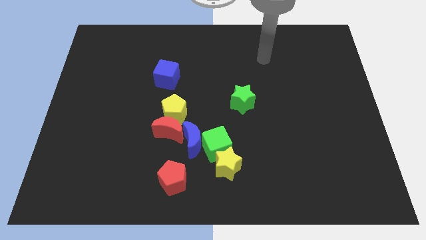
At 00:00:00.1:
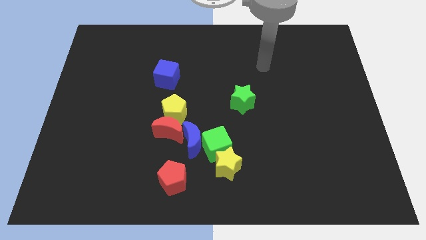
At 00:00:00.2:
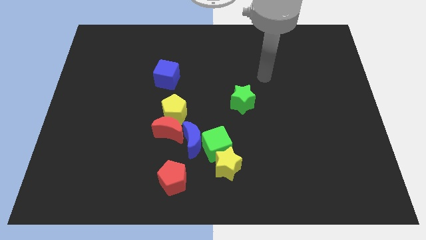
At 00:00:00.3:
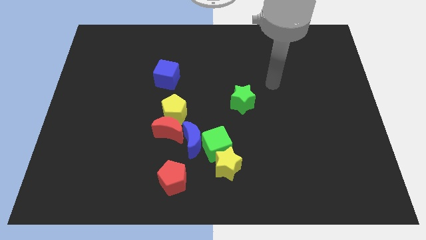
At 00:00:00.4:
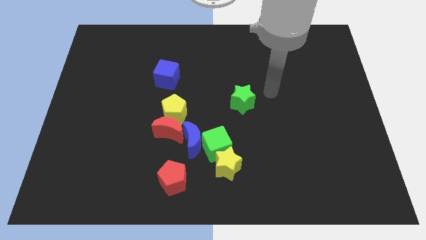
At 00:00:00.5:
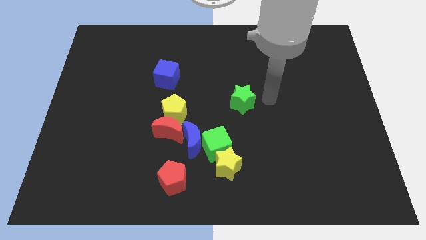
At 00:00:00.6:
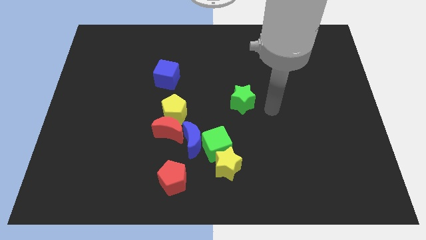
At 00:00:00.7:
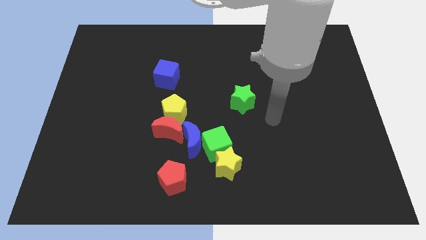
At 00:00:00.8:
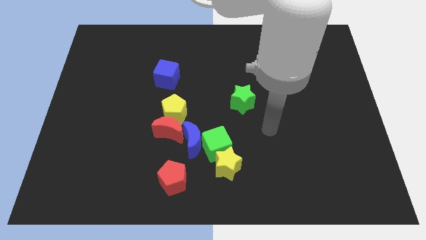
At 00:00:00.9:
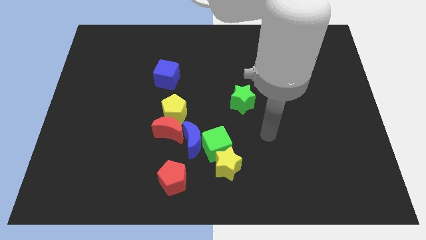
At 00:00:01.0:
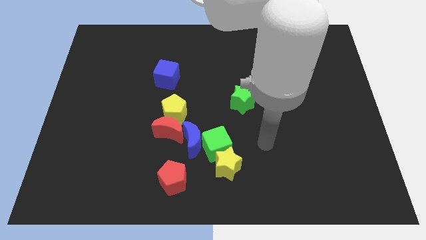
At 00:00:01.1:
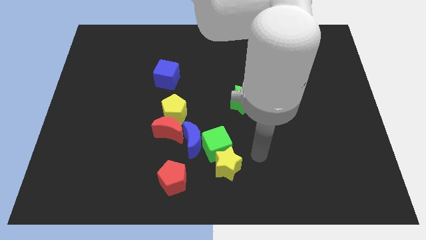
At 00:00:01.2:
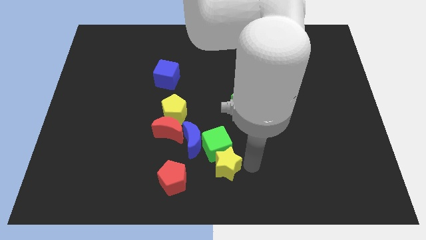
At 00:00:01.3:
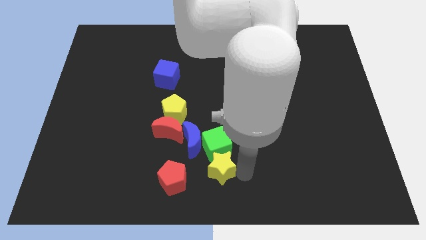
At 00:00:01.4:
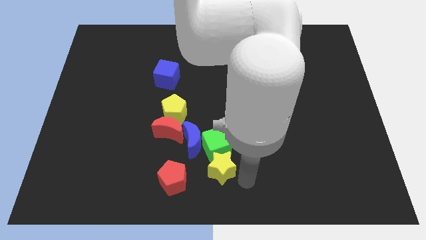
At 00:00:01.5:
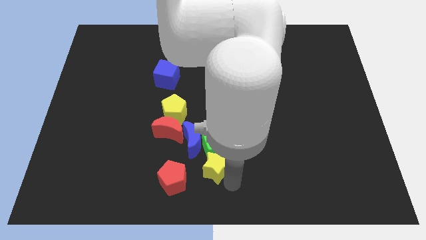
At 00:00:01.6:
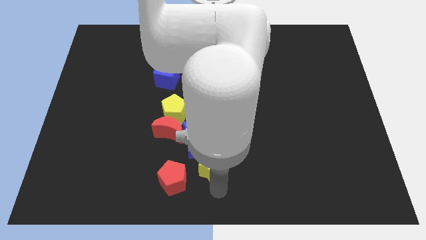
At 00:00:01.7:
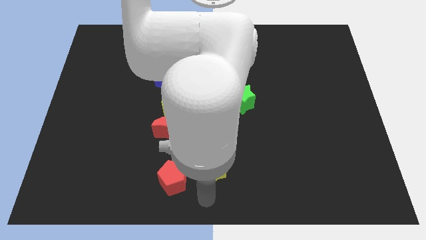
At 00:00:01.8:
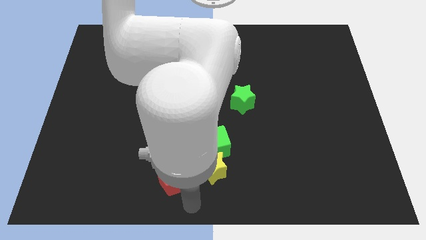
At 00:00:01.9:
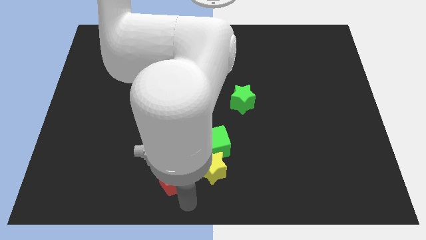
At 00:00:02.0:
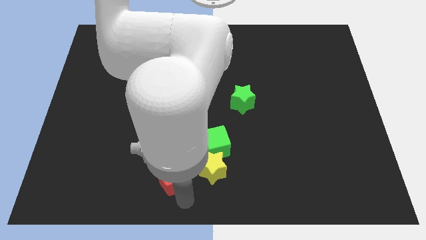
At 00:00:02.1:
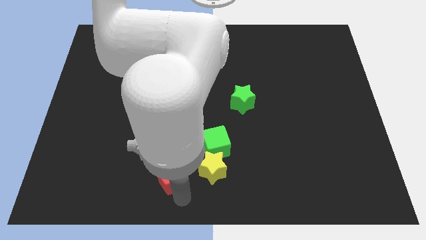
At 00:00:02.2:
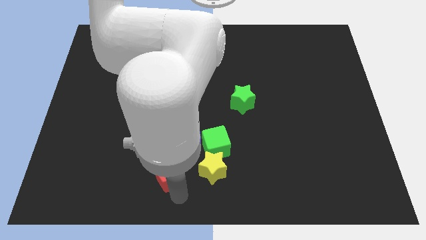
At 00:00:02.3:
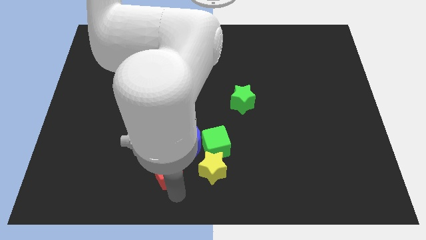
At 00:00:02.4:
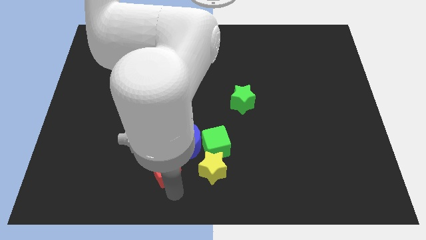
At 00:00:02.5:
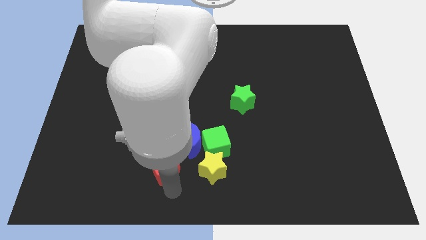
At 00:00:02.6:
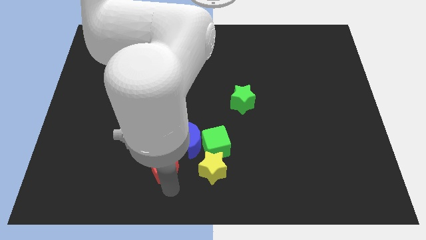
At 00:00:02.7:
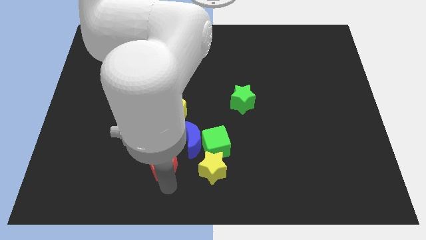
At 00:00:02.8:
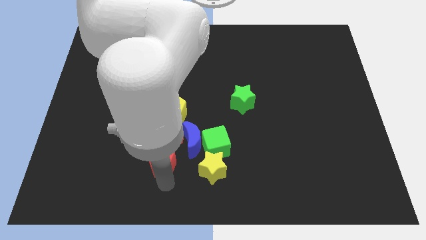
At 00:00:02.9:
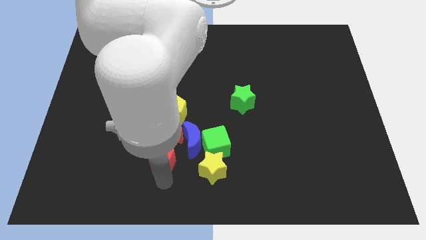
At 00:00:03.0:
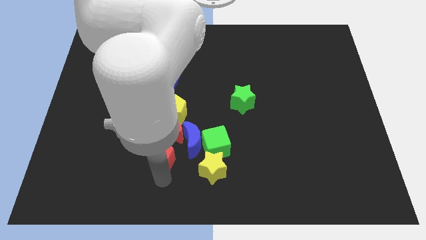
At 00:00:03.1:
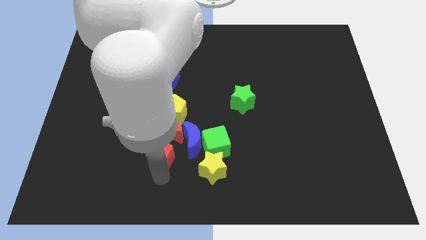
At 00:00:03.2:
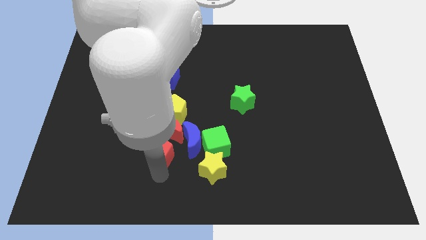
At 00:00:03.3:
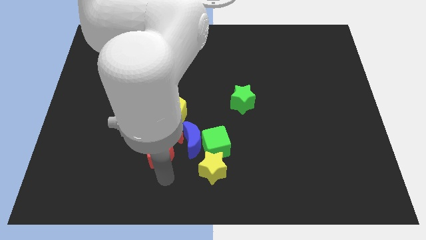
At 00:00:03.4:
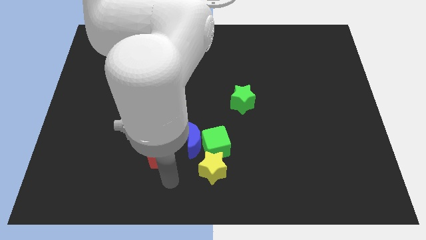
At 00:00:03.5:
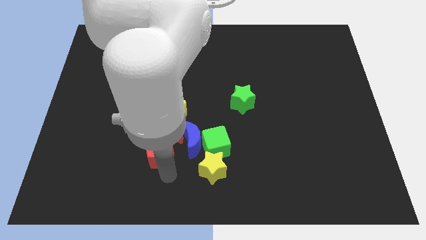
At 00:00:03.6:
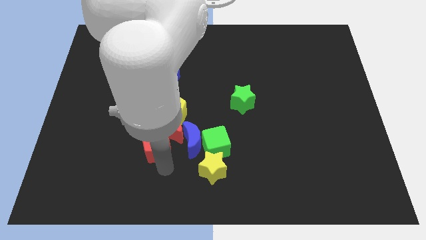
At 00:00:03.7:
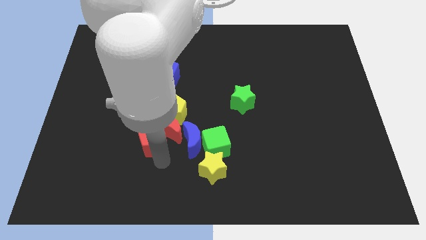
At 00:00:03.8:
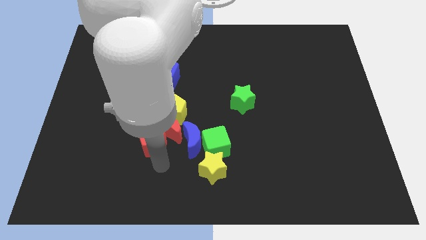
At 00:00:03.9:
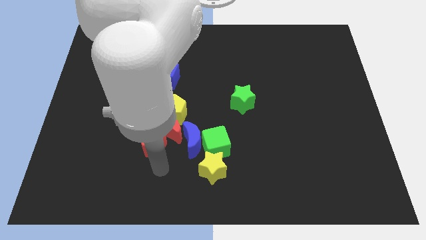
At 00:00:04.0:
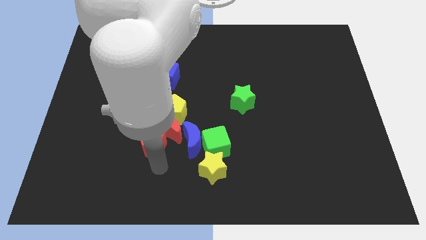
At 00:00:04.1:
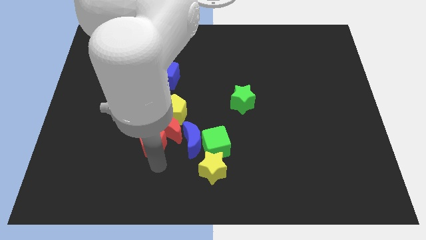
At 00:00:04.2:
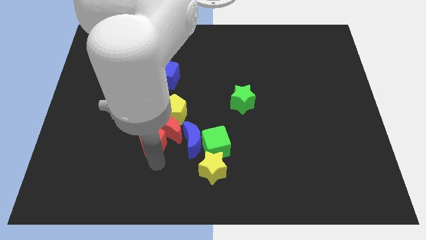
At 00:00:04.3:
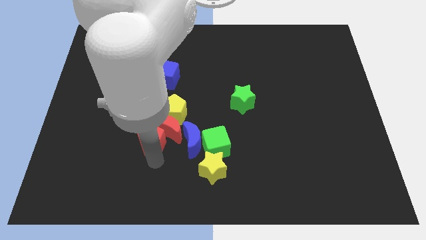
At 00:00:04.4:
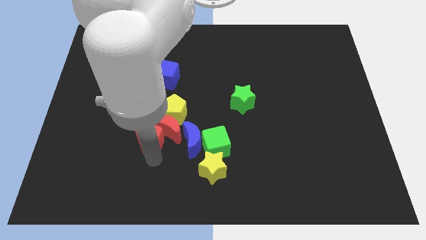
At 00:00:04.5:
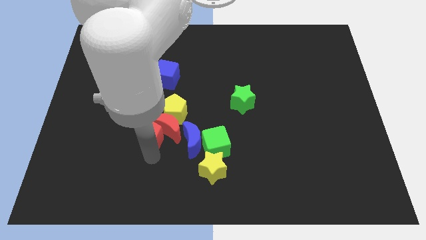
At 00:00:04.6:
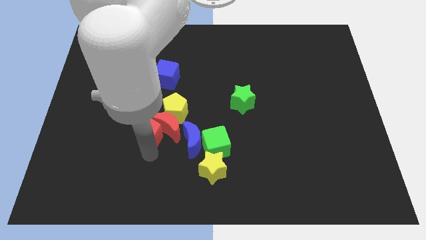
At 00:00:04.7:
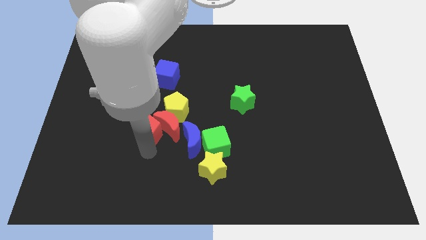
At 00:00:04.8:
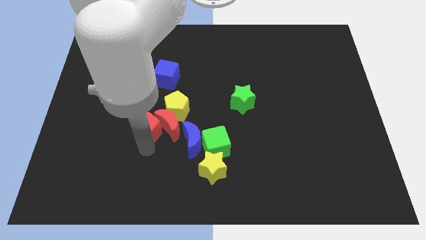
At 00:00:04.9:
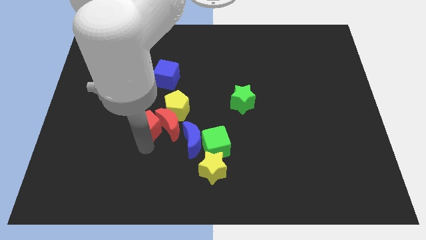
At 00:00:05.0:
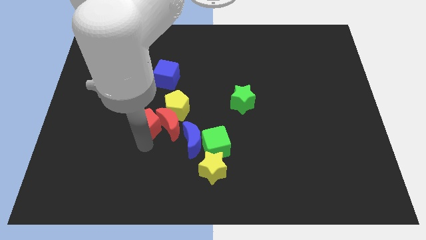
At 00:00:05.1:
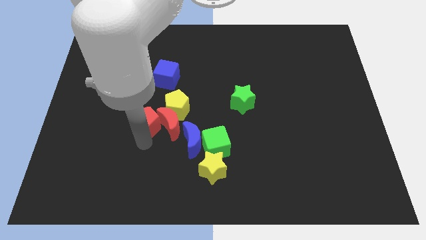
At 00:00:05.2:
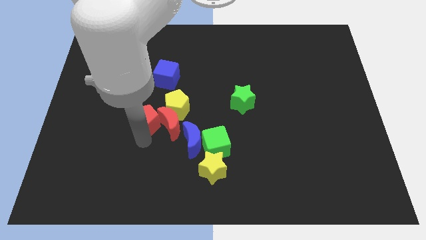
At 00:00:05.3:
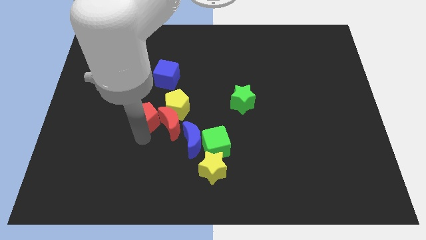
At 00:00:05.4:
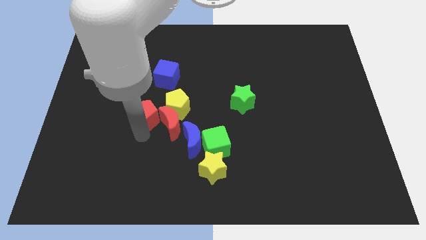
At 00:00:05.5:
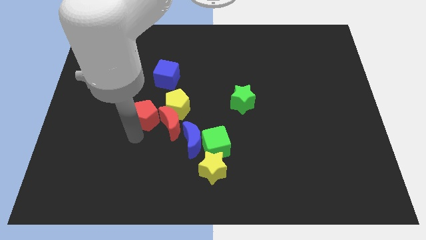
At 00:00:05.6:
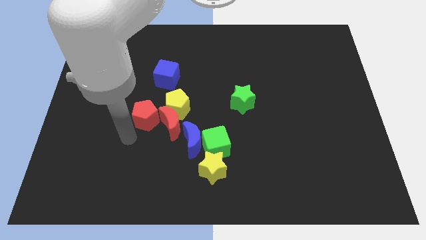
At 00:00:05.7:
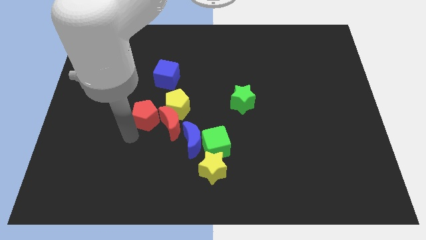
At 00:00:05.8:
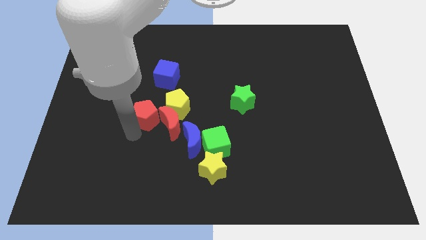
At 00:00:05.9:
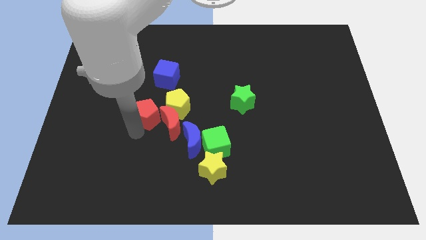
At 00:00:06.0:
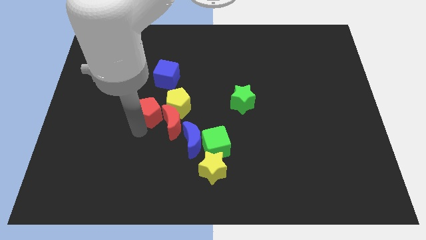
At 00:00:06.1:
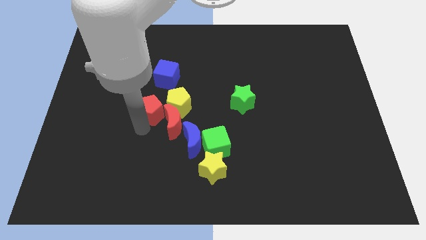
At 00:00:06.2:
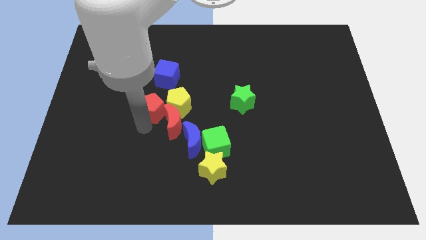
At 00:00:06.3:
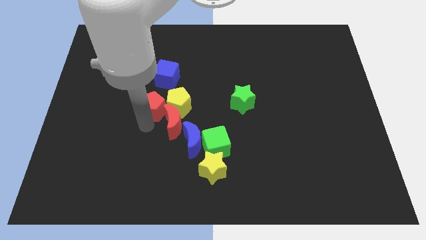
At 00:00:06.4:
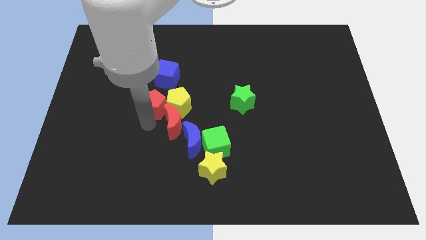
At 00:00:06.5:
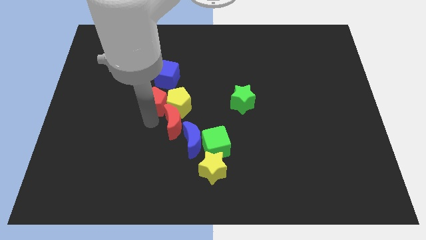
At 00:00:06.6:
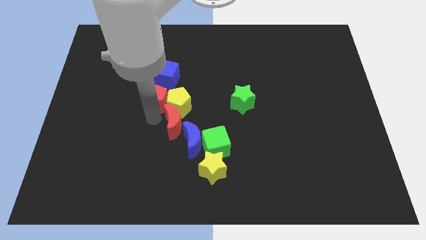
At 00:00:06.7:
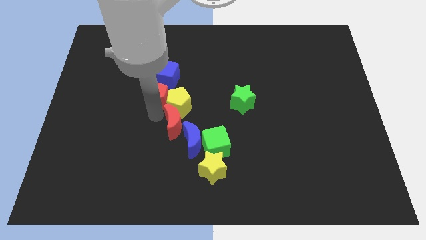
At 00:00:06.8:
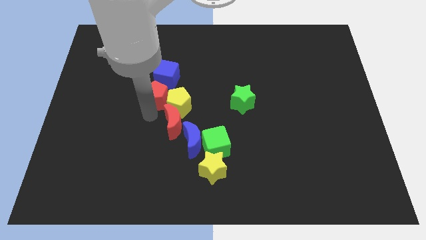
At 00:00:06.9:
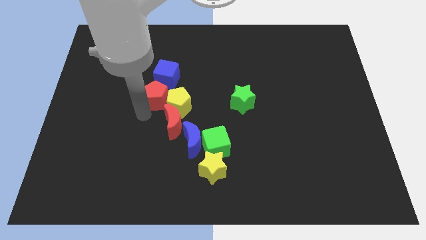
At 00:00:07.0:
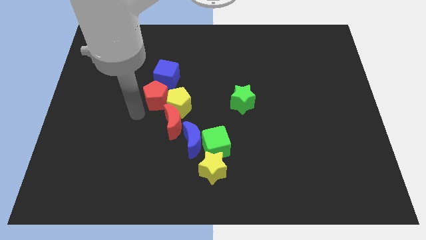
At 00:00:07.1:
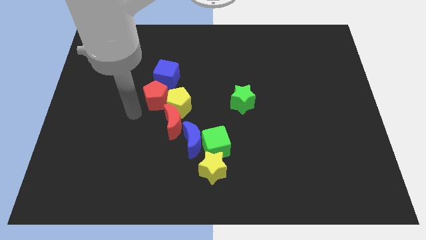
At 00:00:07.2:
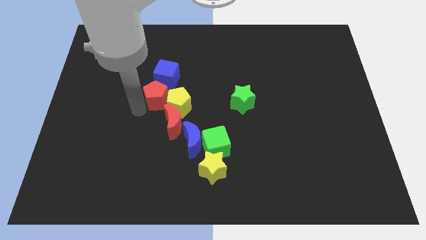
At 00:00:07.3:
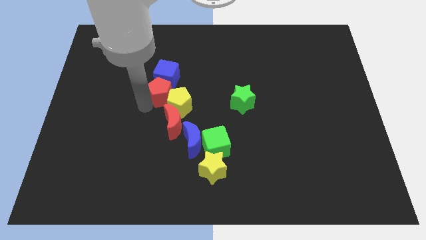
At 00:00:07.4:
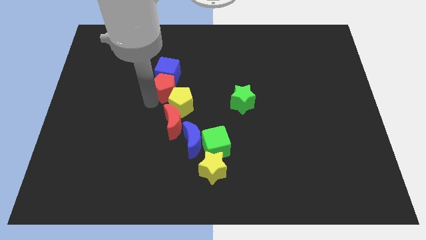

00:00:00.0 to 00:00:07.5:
slide the red pentagon to the top of the yellow pentagon
